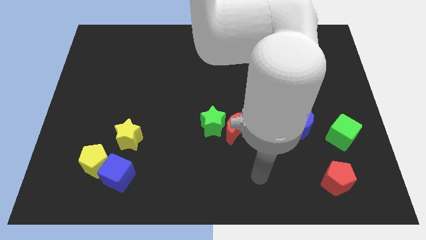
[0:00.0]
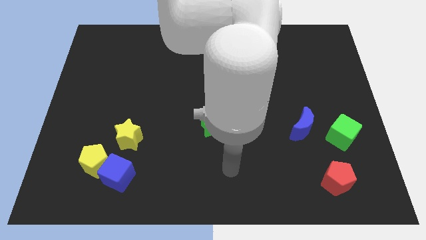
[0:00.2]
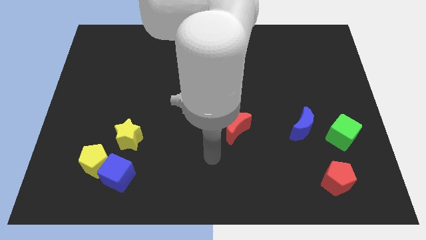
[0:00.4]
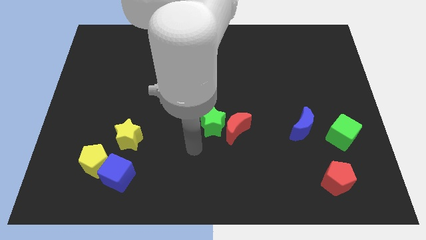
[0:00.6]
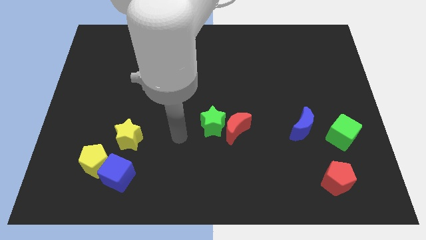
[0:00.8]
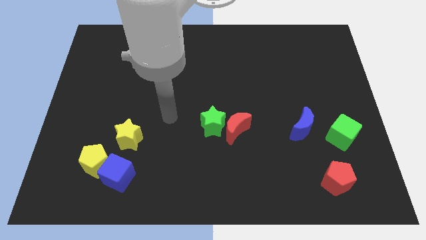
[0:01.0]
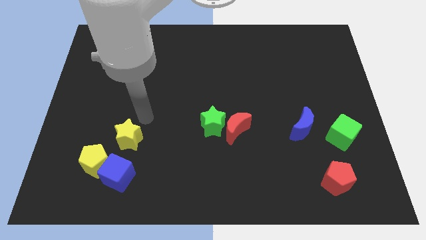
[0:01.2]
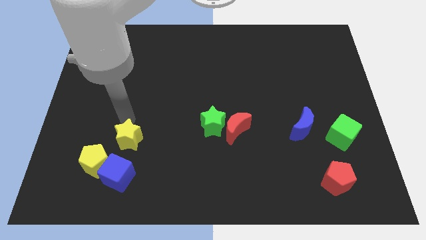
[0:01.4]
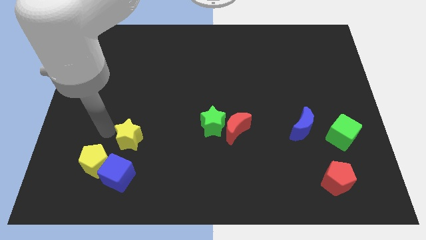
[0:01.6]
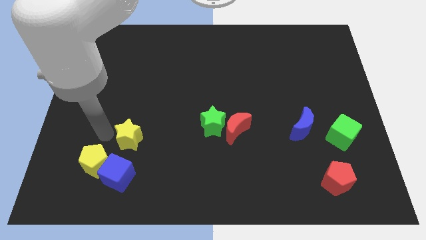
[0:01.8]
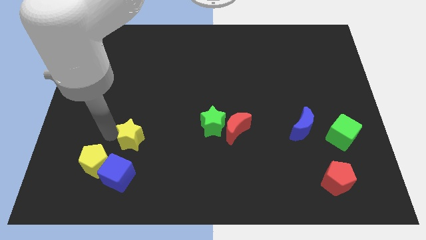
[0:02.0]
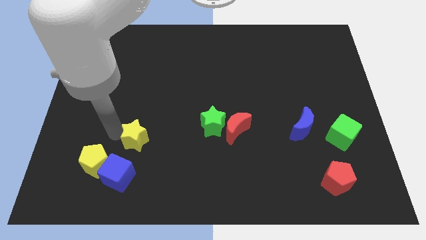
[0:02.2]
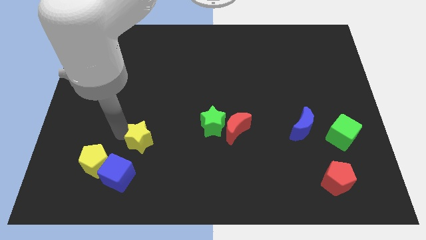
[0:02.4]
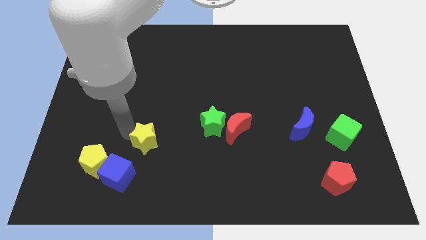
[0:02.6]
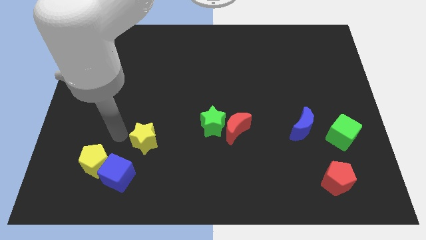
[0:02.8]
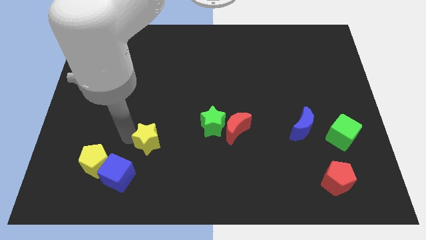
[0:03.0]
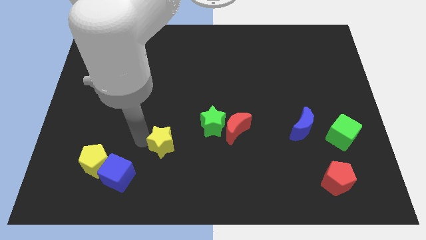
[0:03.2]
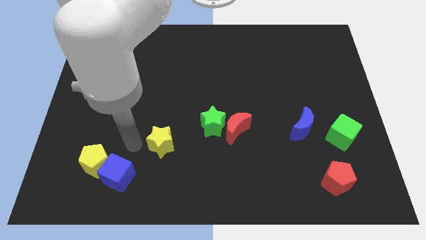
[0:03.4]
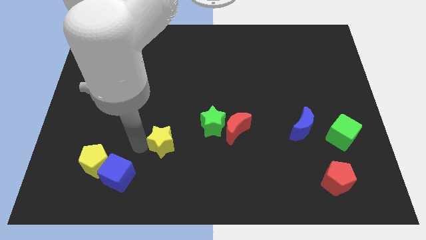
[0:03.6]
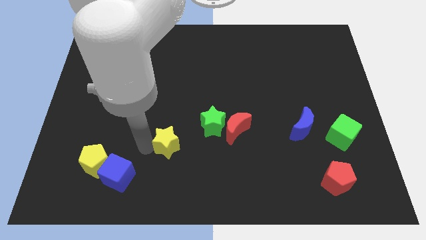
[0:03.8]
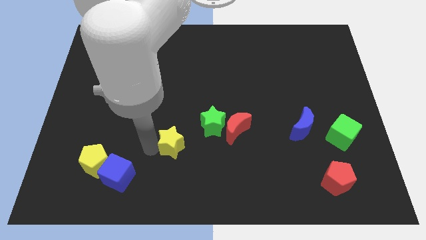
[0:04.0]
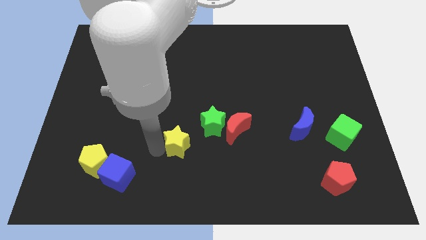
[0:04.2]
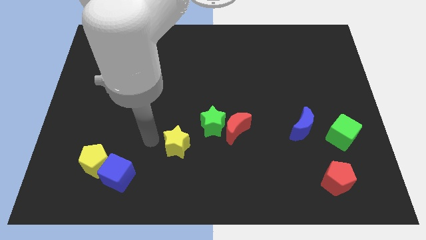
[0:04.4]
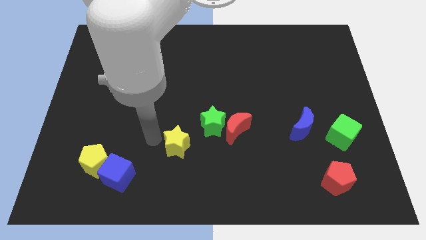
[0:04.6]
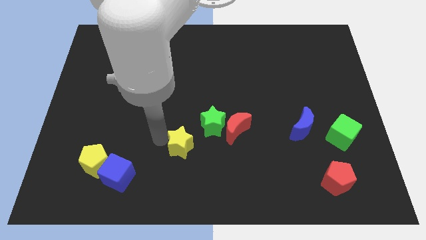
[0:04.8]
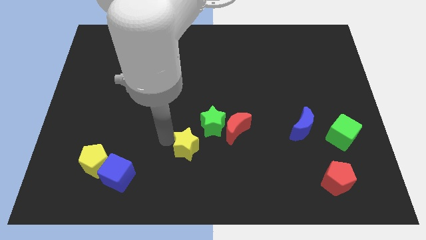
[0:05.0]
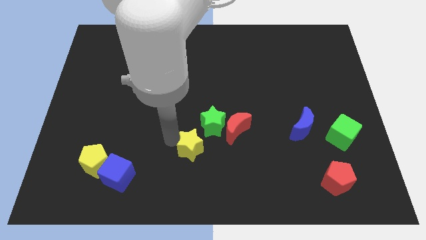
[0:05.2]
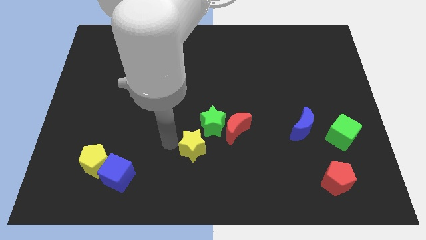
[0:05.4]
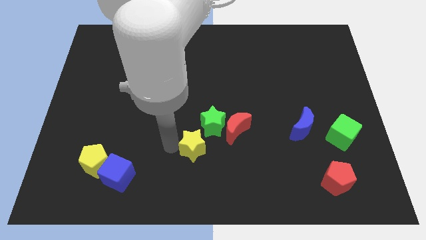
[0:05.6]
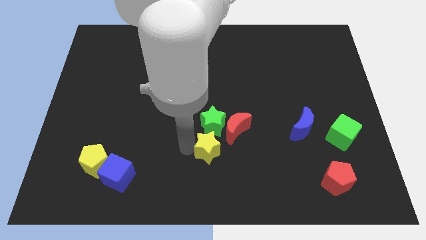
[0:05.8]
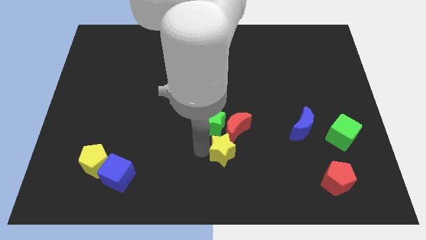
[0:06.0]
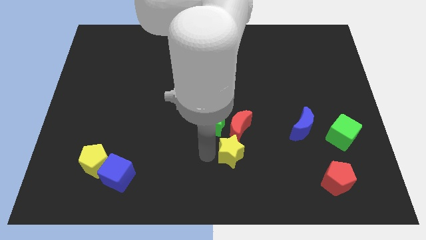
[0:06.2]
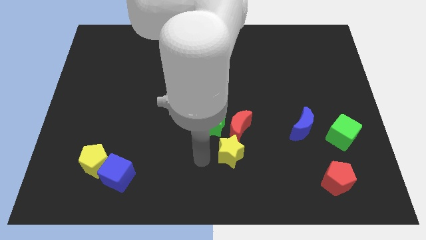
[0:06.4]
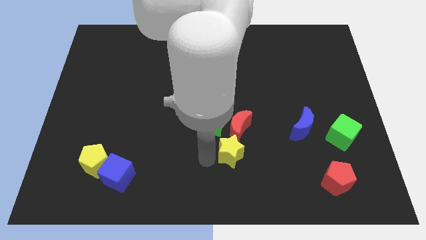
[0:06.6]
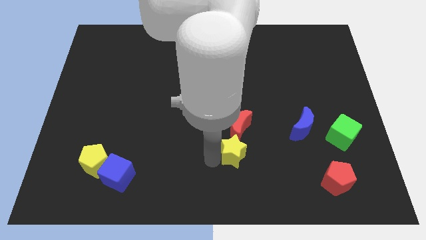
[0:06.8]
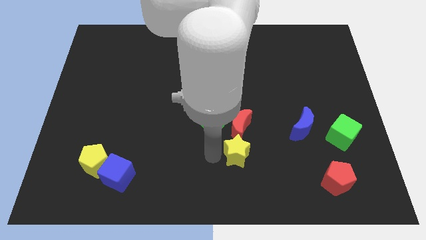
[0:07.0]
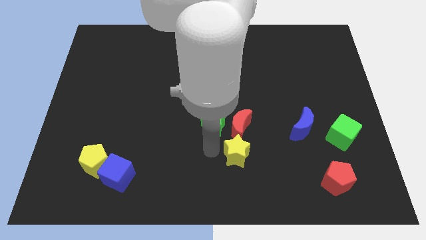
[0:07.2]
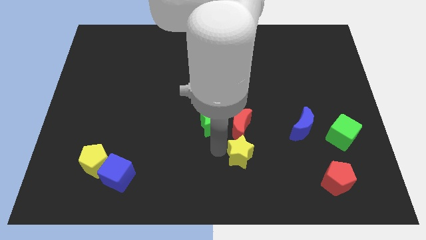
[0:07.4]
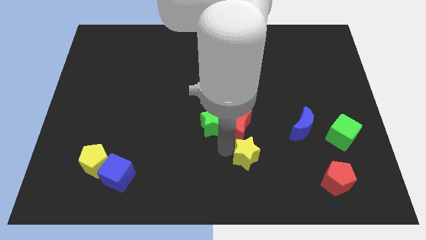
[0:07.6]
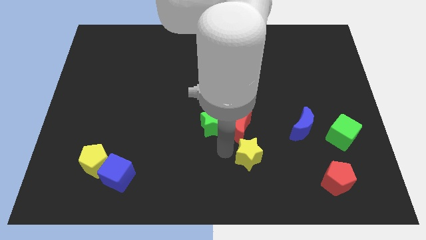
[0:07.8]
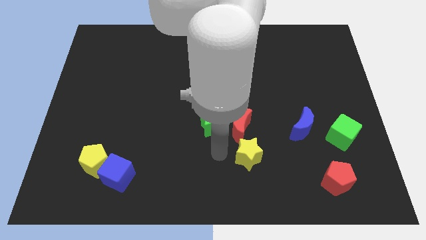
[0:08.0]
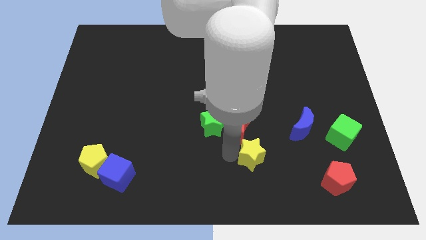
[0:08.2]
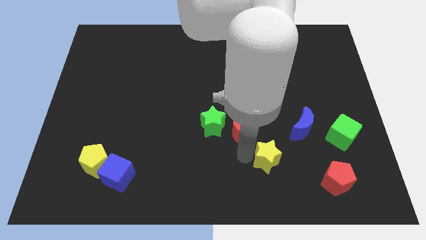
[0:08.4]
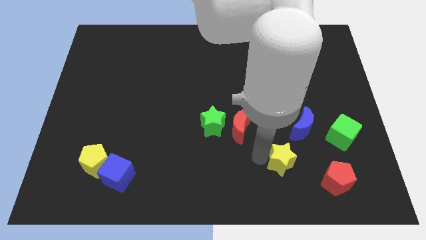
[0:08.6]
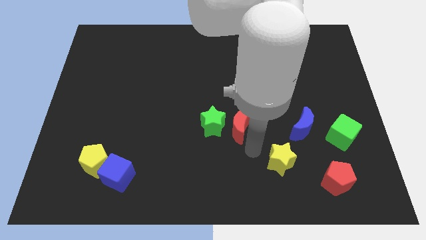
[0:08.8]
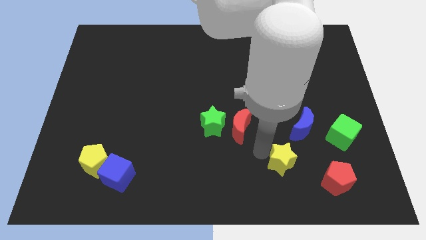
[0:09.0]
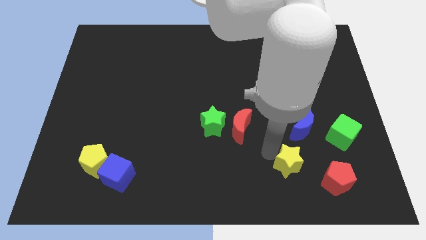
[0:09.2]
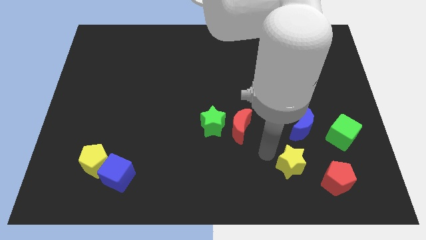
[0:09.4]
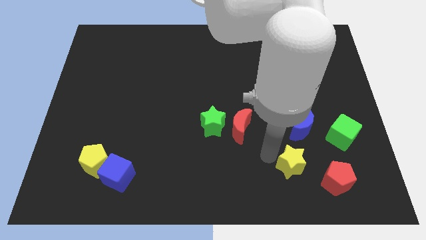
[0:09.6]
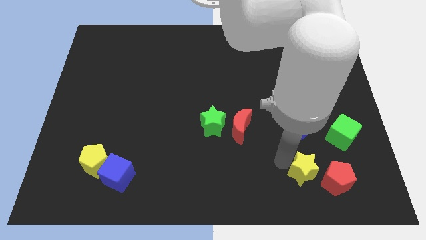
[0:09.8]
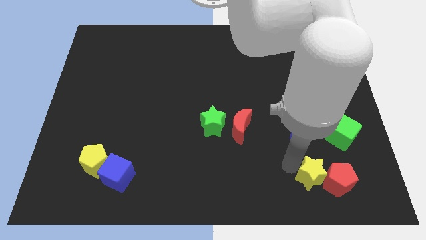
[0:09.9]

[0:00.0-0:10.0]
put the yellow star close to the red pentagon

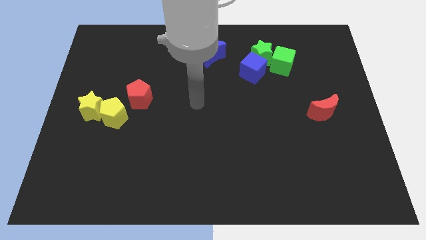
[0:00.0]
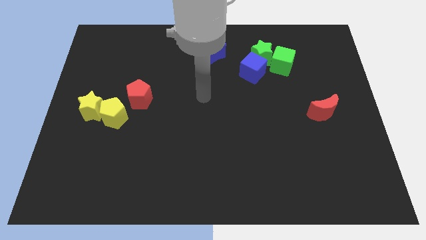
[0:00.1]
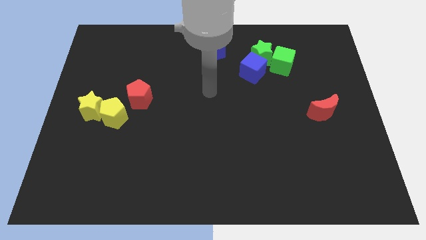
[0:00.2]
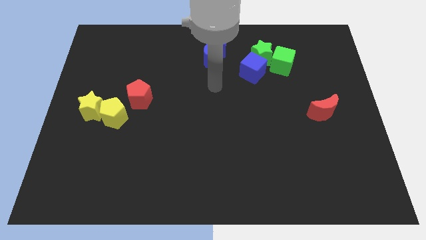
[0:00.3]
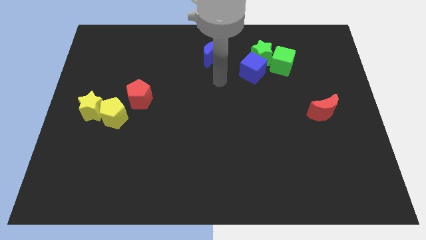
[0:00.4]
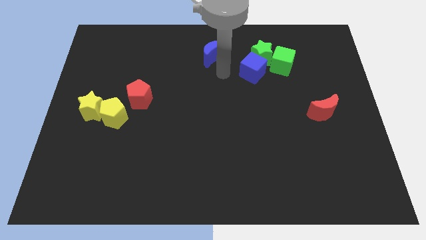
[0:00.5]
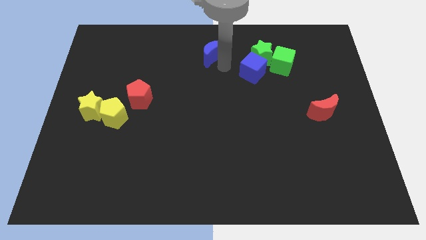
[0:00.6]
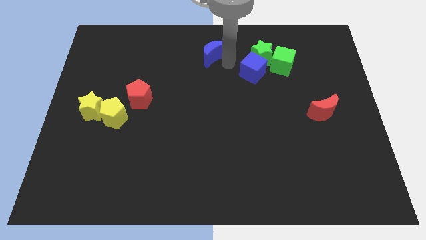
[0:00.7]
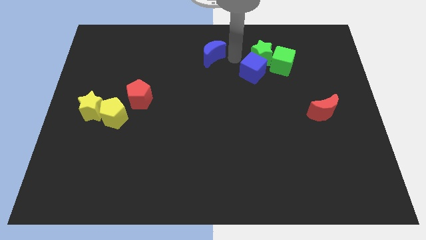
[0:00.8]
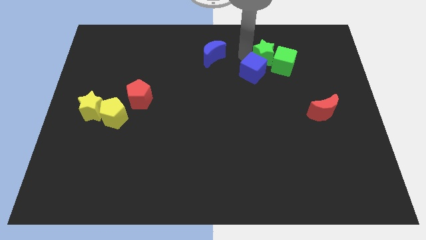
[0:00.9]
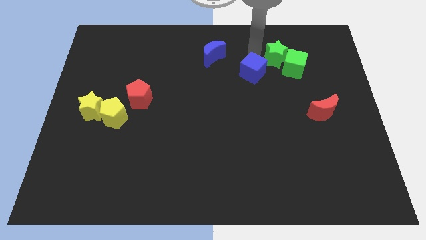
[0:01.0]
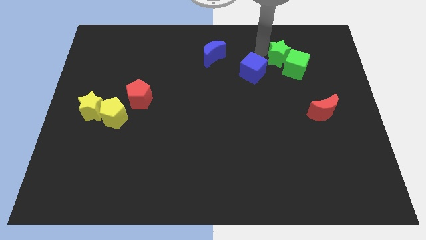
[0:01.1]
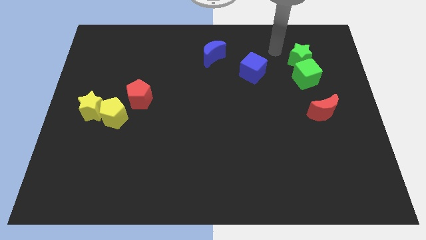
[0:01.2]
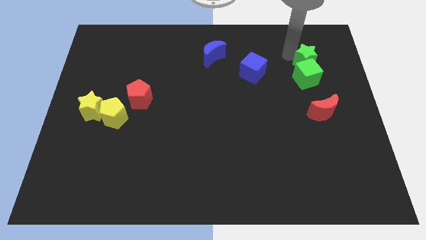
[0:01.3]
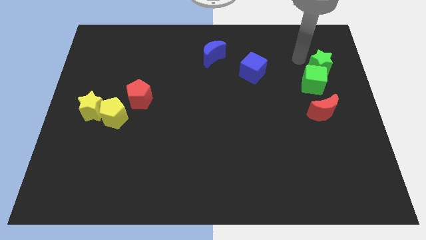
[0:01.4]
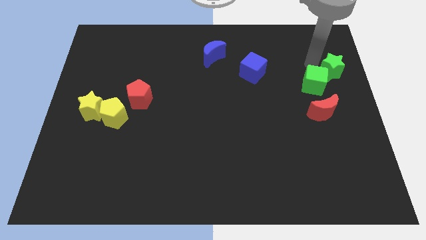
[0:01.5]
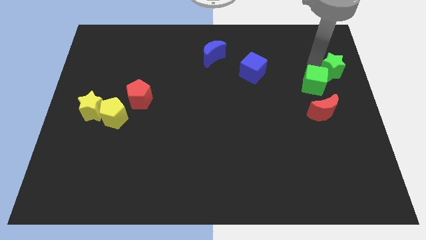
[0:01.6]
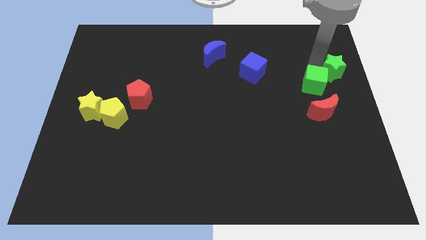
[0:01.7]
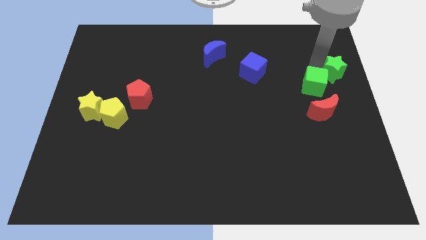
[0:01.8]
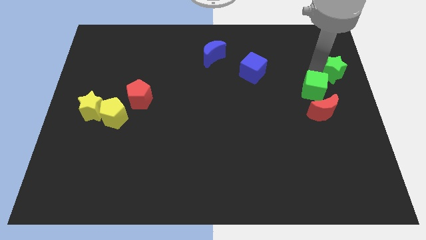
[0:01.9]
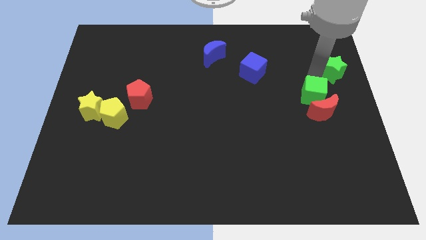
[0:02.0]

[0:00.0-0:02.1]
put the green cube next to the red moon
